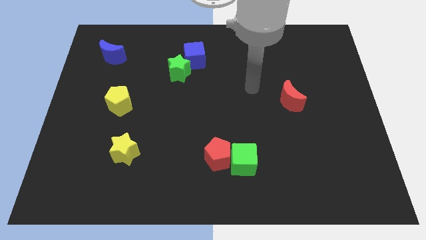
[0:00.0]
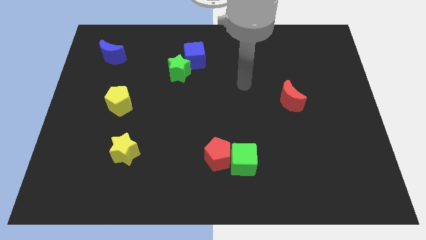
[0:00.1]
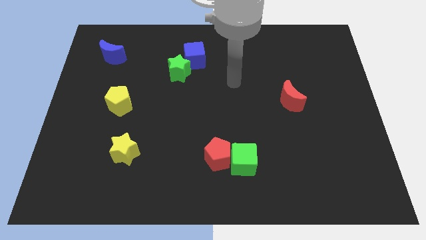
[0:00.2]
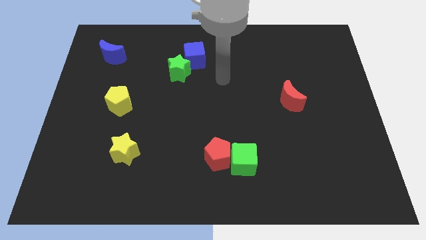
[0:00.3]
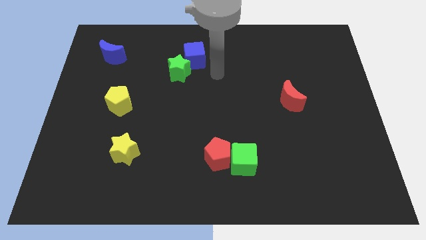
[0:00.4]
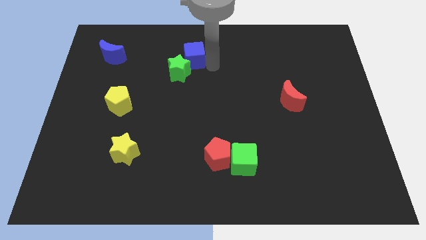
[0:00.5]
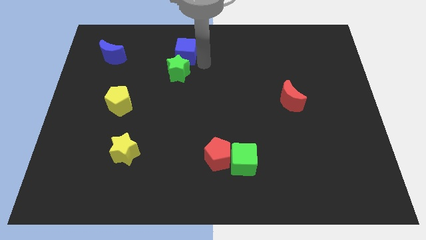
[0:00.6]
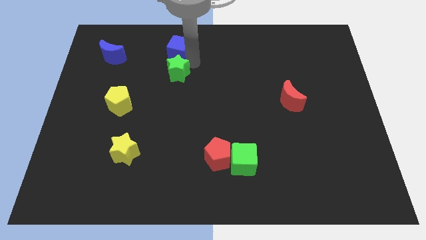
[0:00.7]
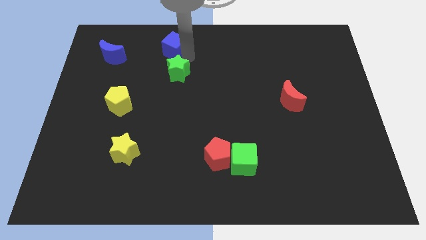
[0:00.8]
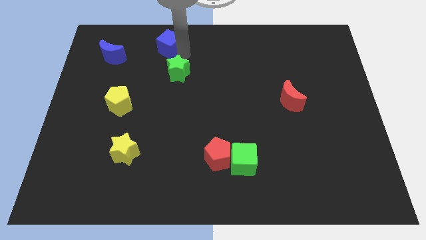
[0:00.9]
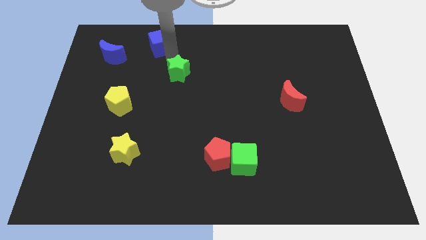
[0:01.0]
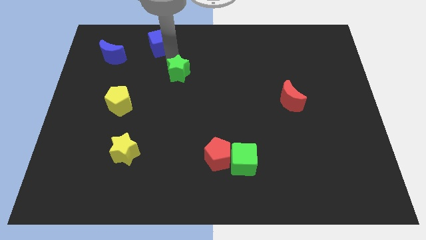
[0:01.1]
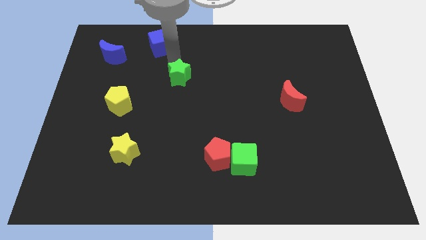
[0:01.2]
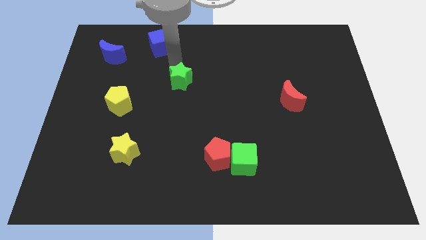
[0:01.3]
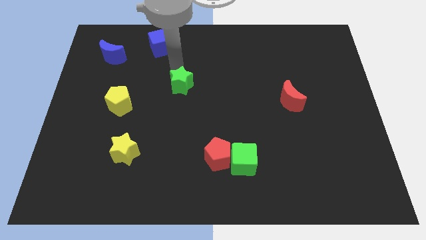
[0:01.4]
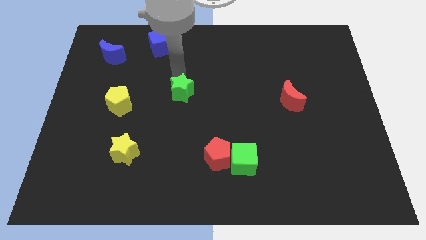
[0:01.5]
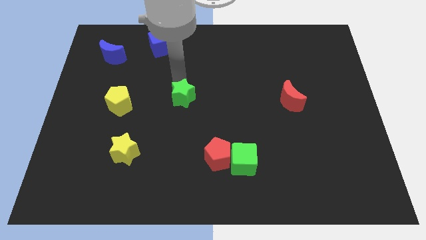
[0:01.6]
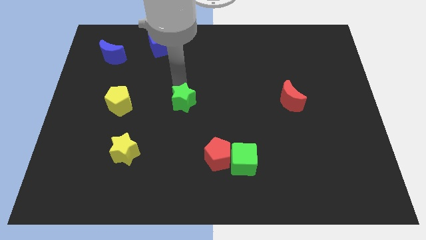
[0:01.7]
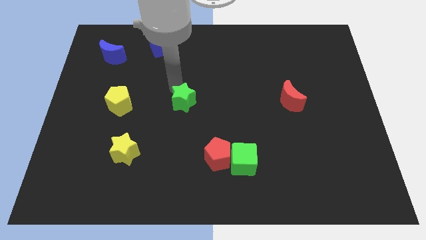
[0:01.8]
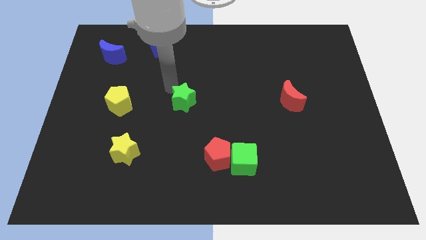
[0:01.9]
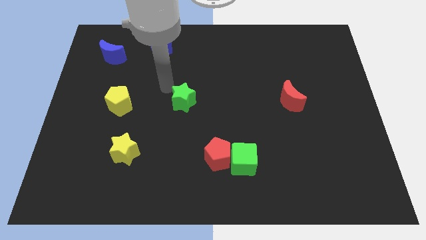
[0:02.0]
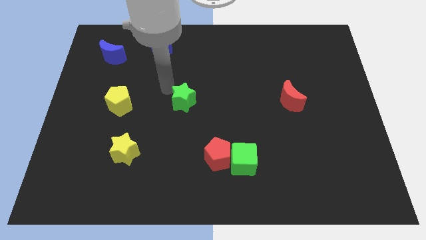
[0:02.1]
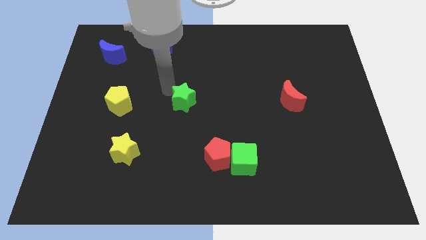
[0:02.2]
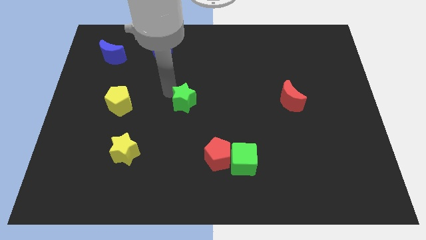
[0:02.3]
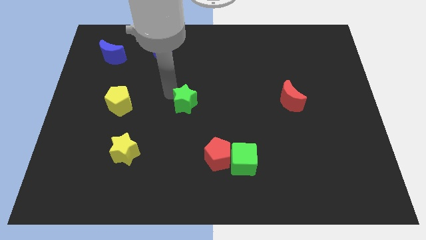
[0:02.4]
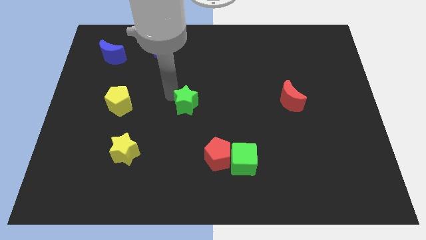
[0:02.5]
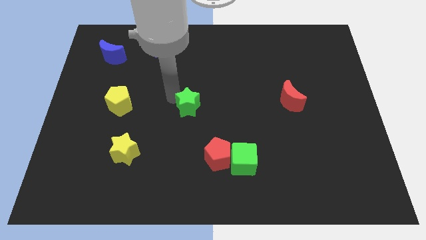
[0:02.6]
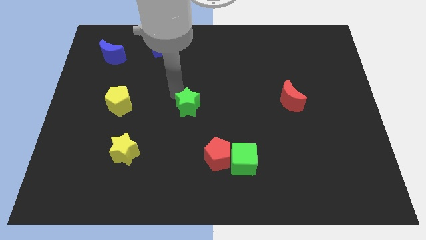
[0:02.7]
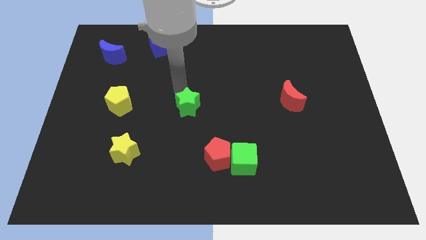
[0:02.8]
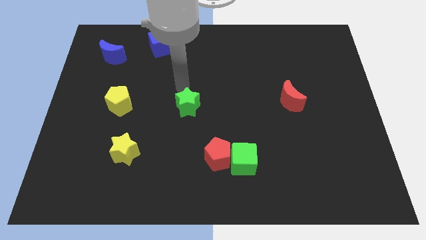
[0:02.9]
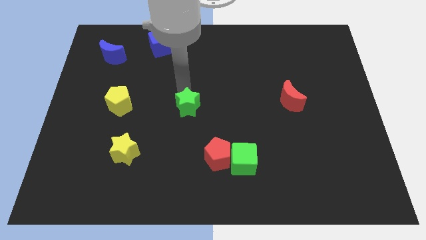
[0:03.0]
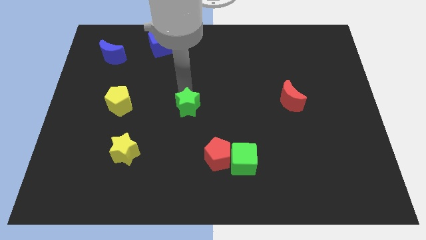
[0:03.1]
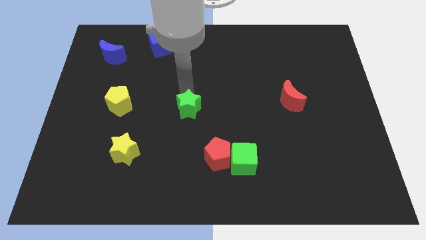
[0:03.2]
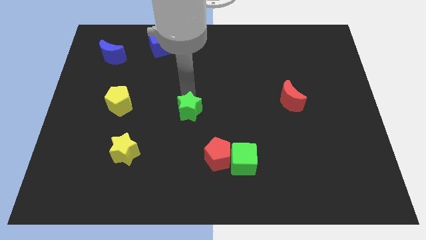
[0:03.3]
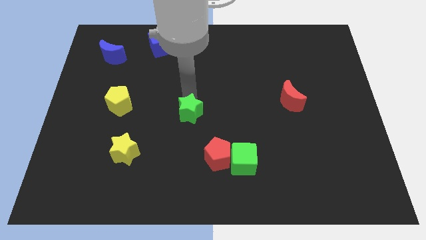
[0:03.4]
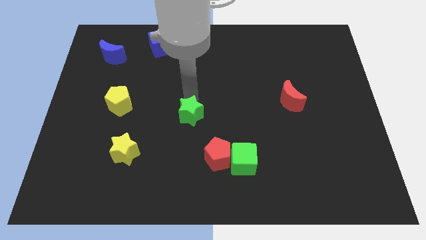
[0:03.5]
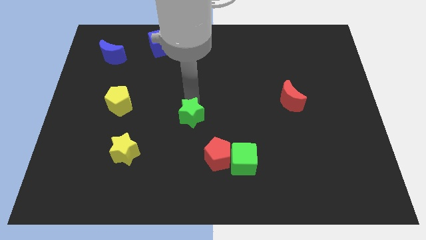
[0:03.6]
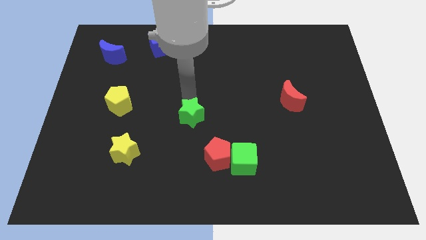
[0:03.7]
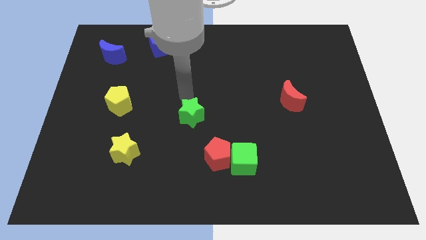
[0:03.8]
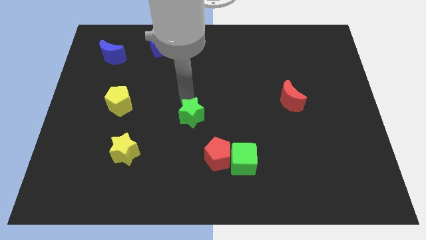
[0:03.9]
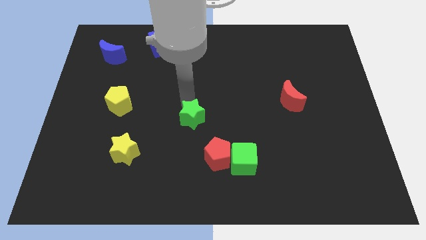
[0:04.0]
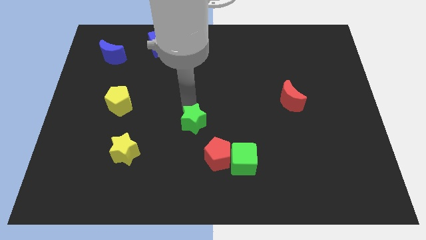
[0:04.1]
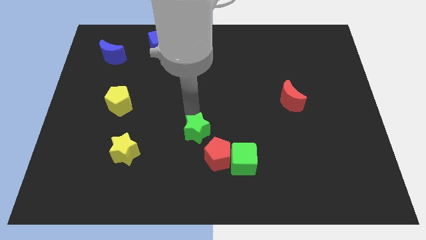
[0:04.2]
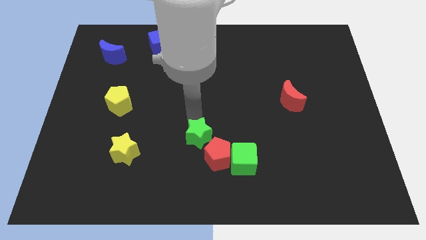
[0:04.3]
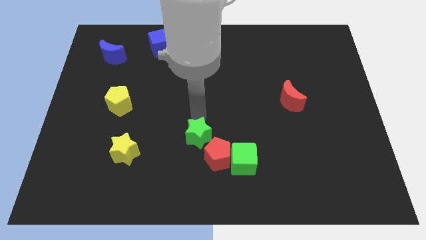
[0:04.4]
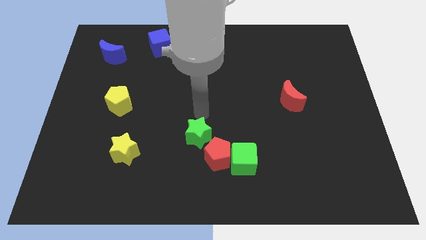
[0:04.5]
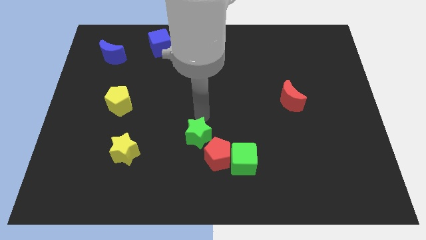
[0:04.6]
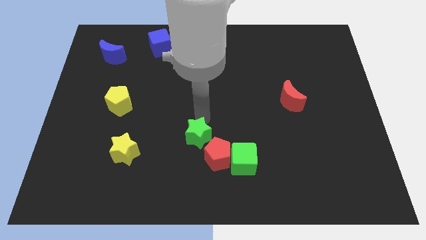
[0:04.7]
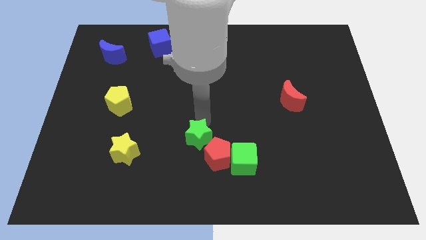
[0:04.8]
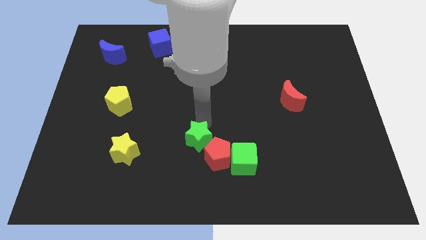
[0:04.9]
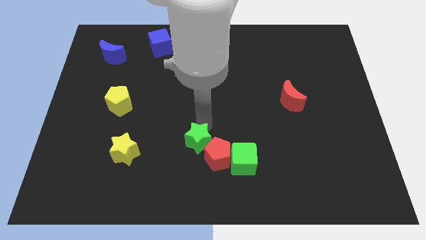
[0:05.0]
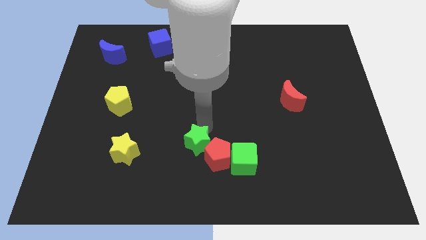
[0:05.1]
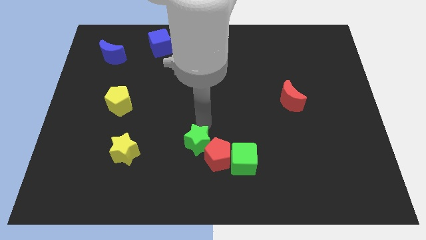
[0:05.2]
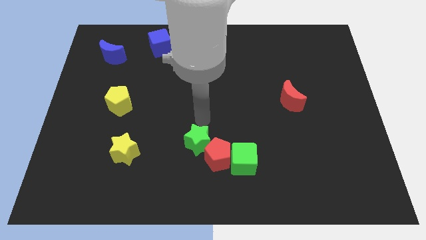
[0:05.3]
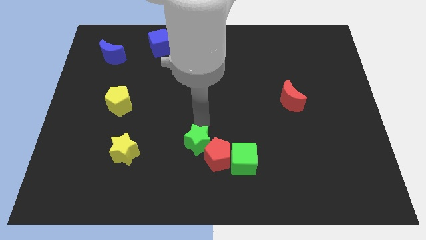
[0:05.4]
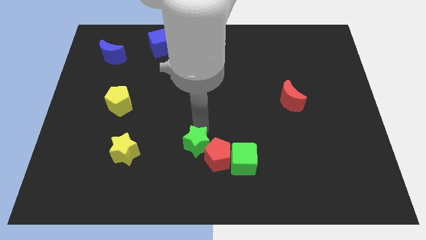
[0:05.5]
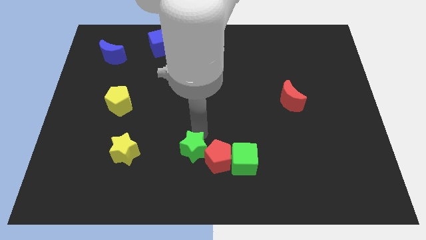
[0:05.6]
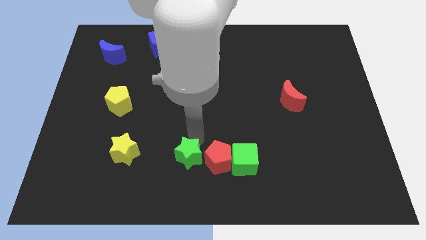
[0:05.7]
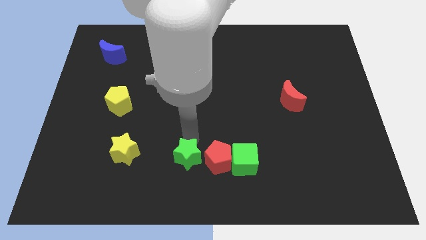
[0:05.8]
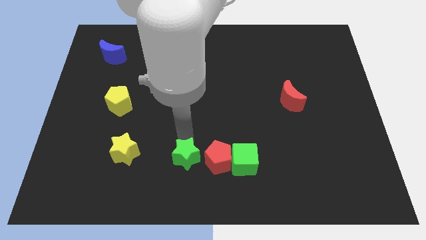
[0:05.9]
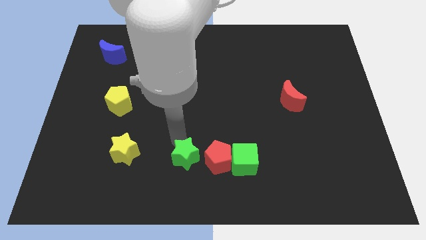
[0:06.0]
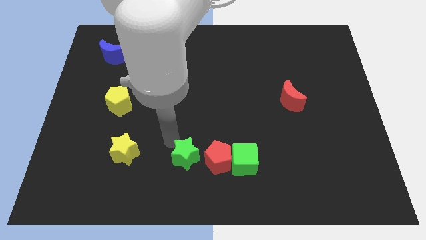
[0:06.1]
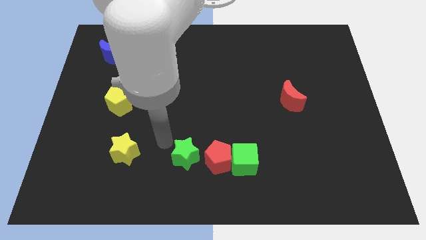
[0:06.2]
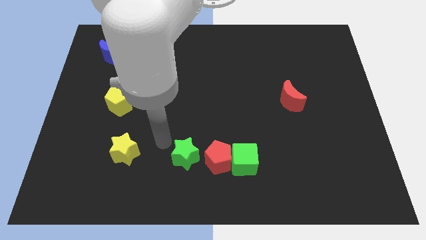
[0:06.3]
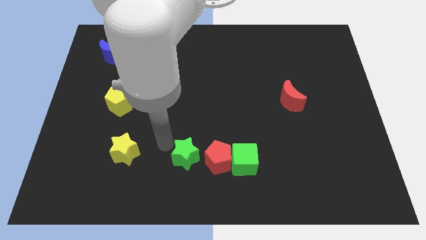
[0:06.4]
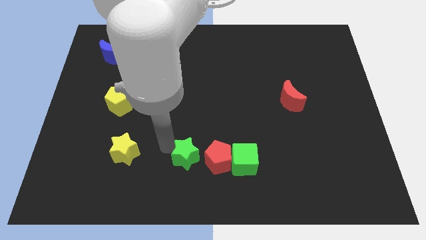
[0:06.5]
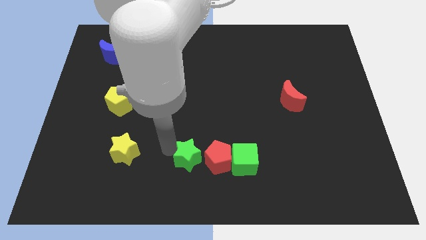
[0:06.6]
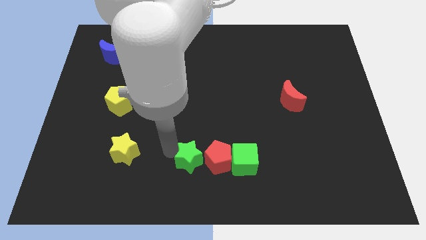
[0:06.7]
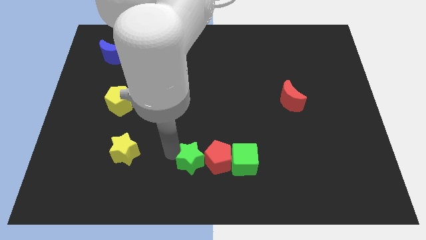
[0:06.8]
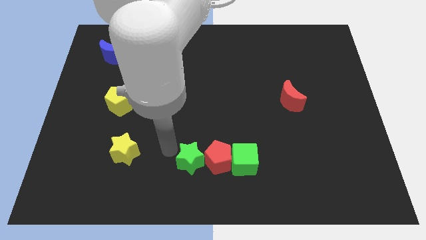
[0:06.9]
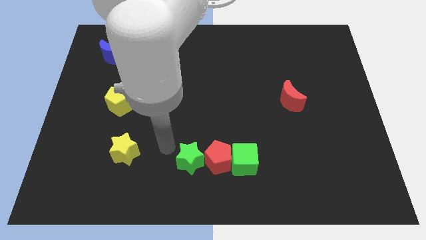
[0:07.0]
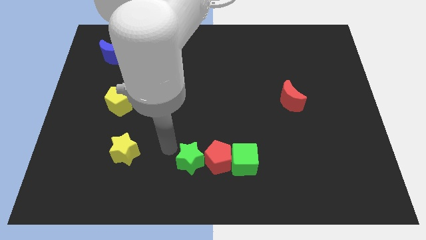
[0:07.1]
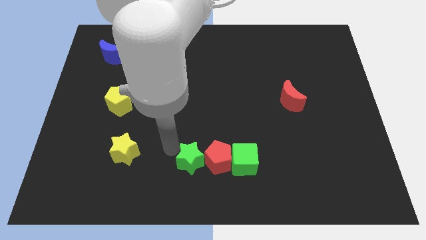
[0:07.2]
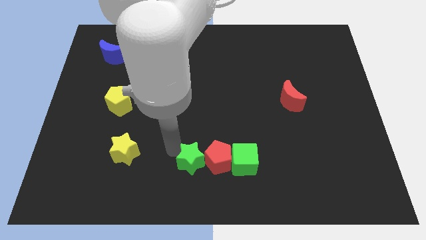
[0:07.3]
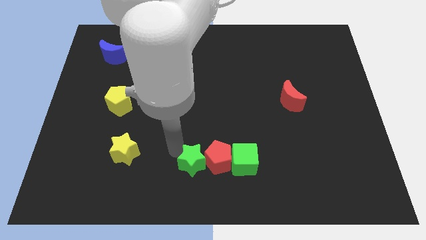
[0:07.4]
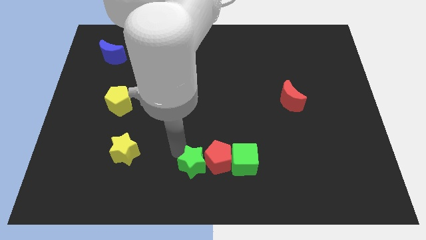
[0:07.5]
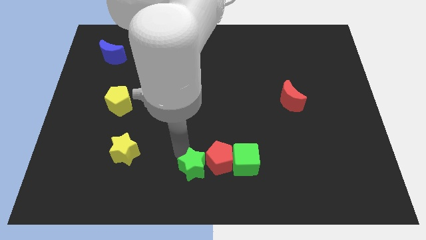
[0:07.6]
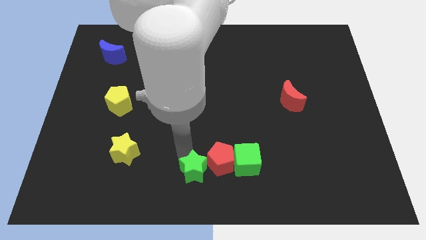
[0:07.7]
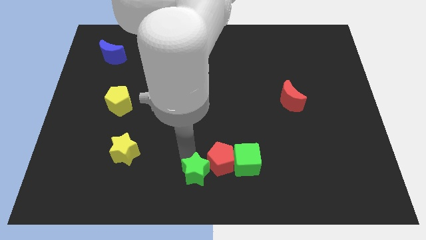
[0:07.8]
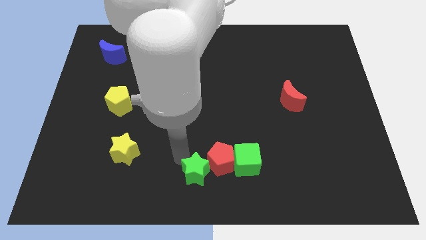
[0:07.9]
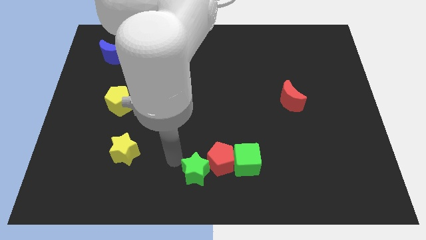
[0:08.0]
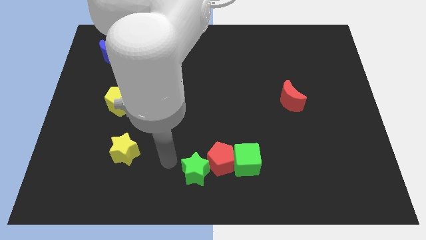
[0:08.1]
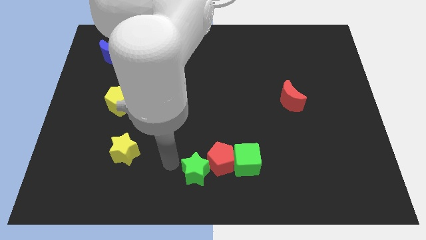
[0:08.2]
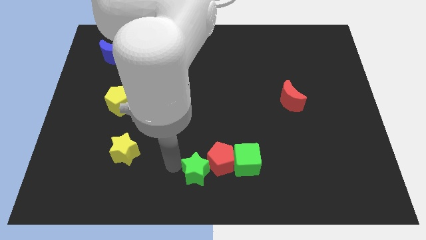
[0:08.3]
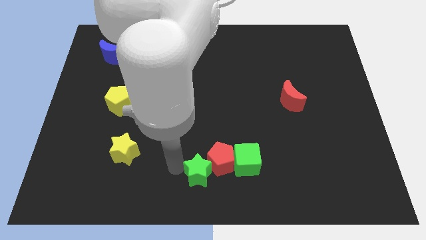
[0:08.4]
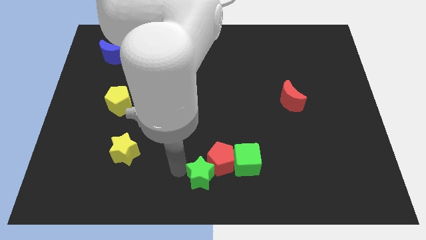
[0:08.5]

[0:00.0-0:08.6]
move the green star to the bottom left side of the green cube
